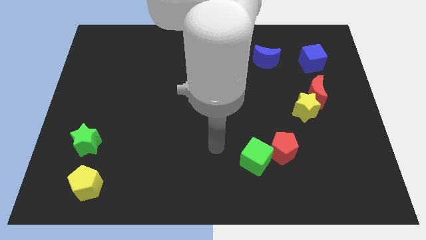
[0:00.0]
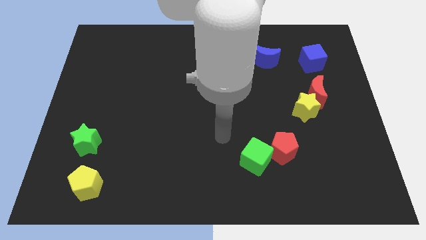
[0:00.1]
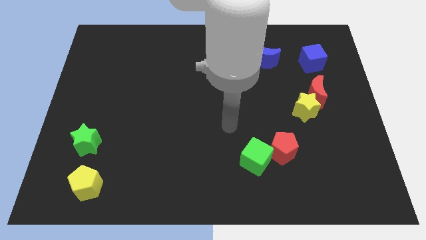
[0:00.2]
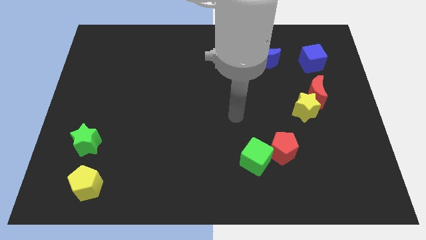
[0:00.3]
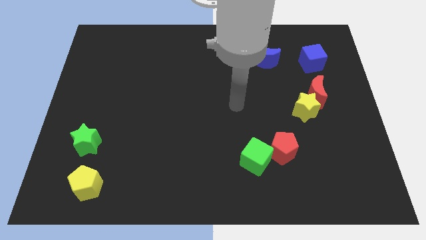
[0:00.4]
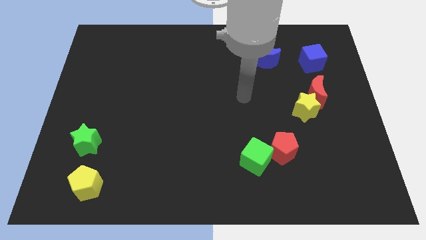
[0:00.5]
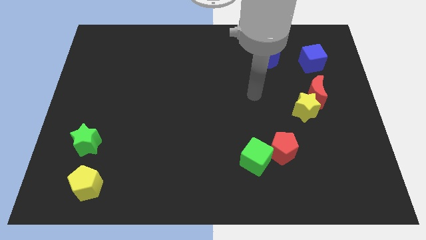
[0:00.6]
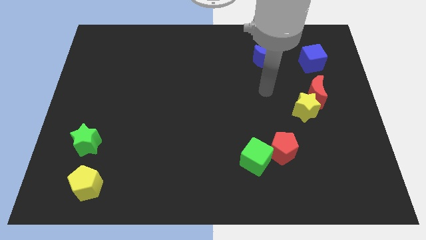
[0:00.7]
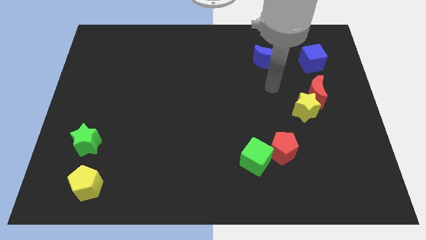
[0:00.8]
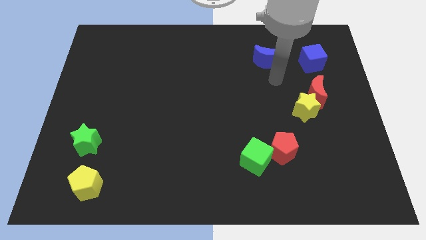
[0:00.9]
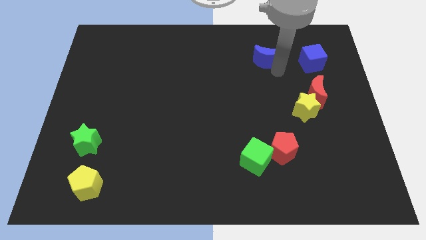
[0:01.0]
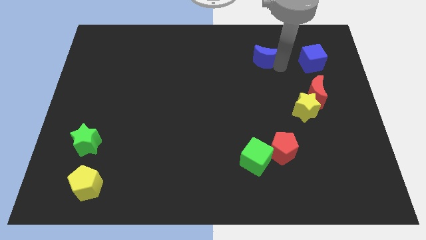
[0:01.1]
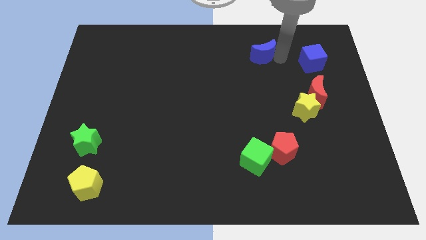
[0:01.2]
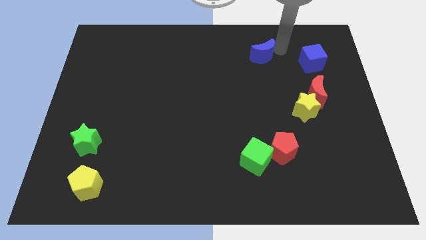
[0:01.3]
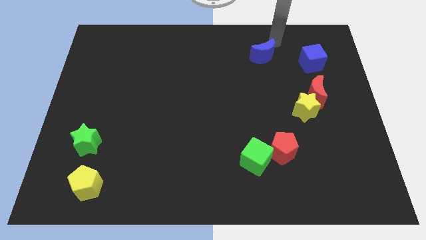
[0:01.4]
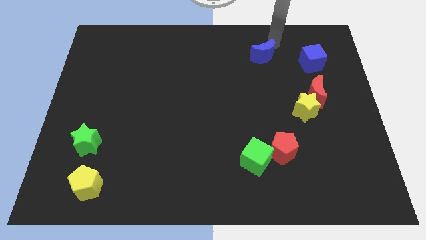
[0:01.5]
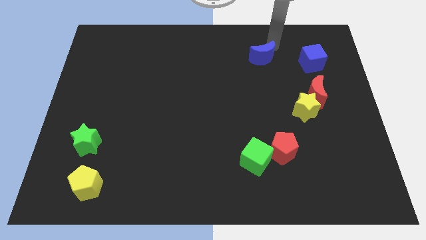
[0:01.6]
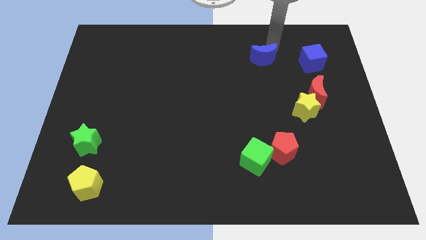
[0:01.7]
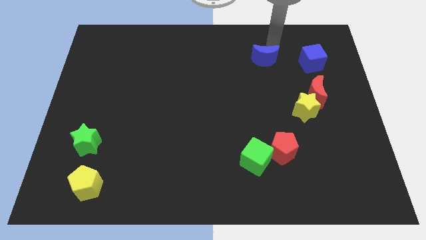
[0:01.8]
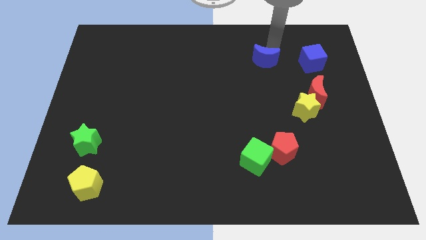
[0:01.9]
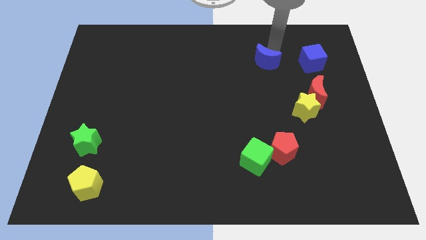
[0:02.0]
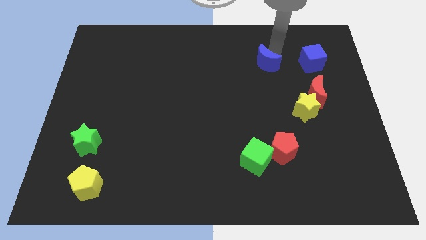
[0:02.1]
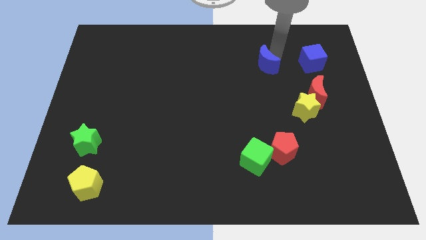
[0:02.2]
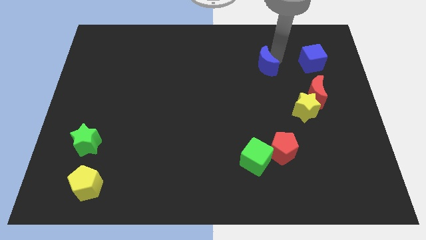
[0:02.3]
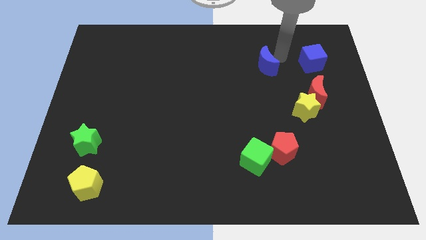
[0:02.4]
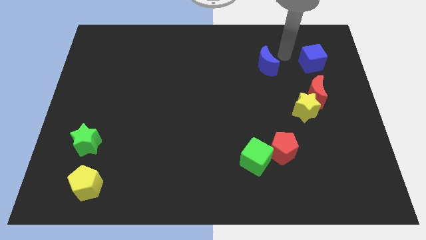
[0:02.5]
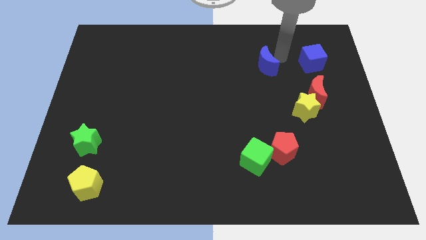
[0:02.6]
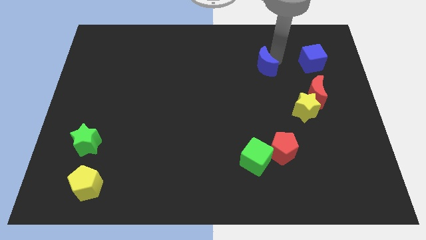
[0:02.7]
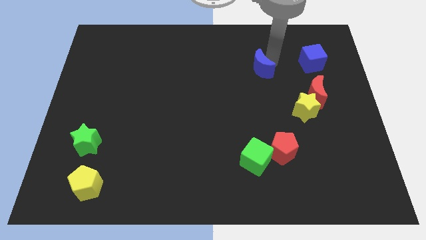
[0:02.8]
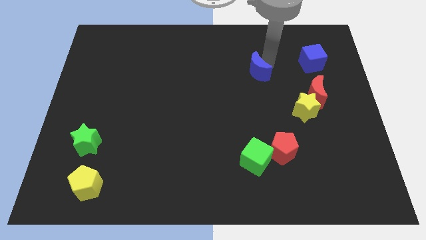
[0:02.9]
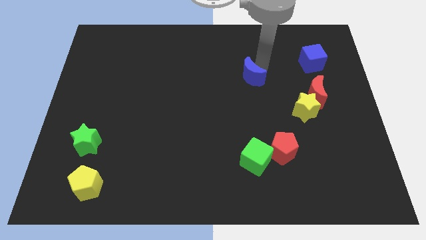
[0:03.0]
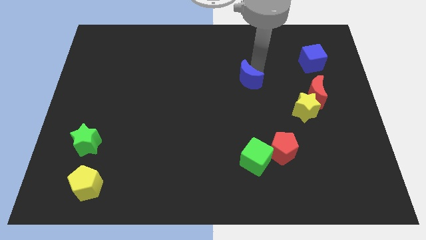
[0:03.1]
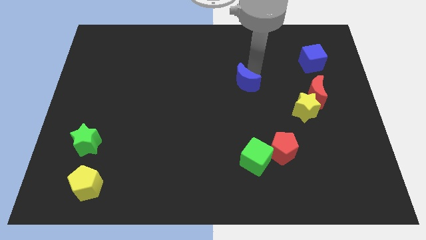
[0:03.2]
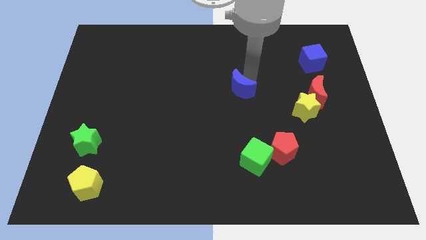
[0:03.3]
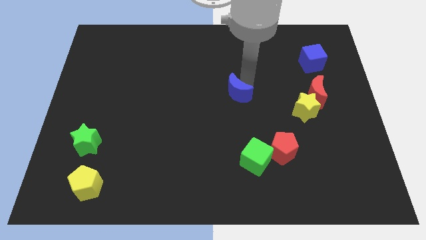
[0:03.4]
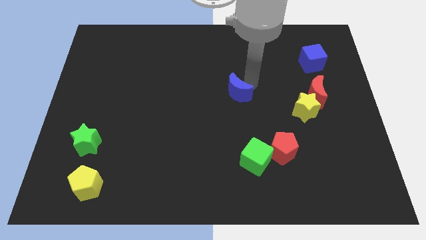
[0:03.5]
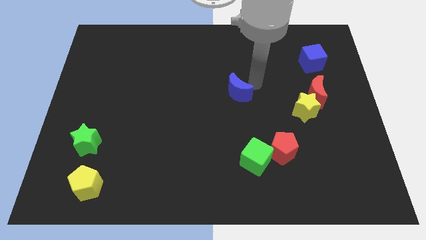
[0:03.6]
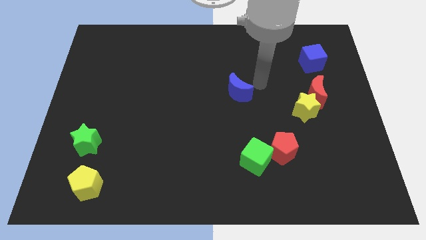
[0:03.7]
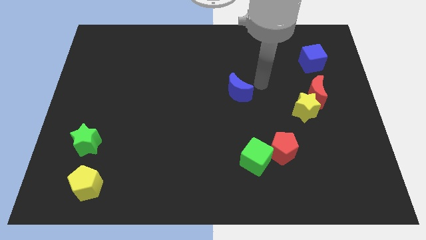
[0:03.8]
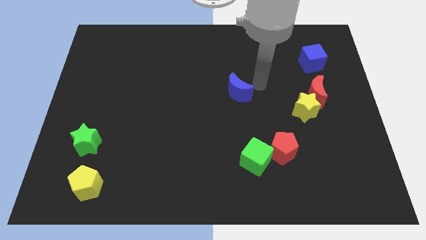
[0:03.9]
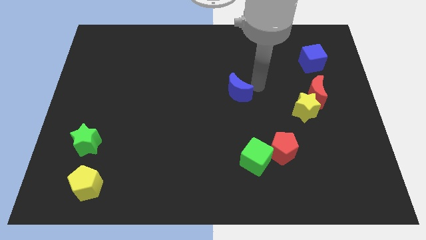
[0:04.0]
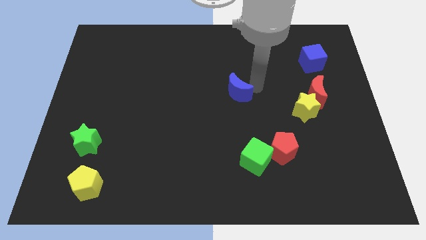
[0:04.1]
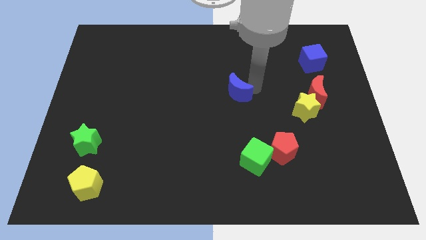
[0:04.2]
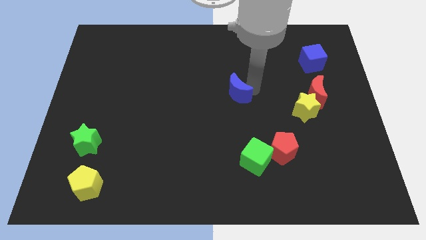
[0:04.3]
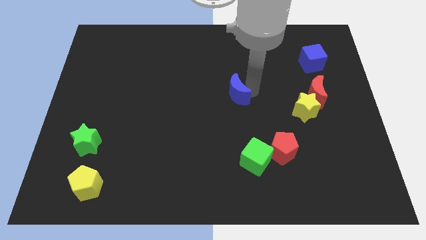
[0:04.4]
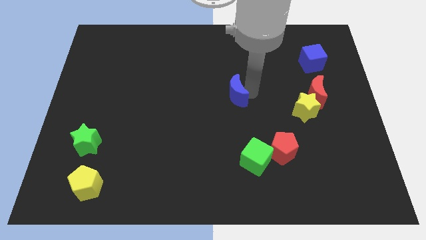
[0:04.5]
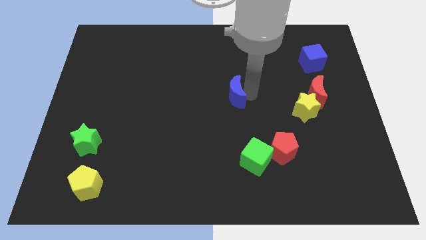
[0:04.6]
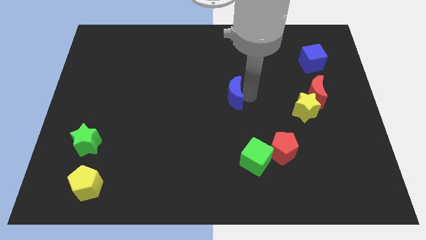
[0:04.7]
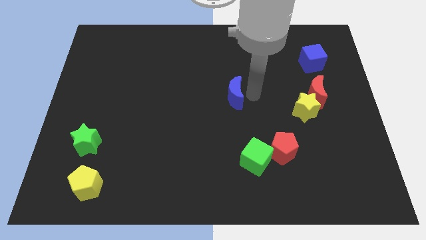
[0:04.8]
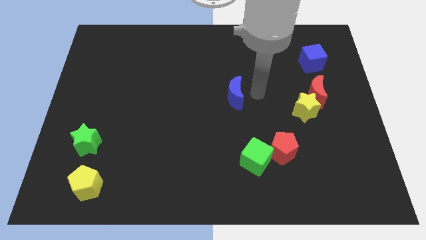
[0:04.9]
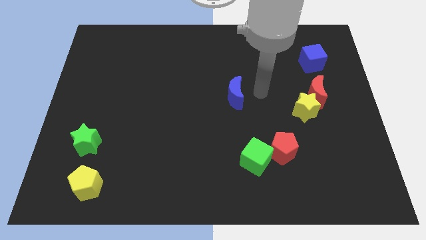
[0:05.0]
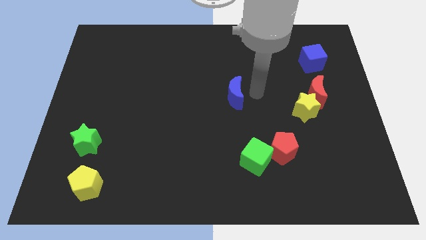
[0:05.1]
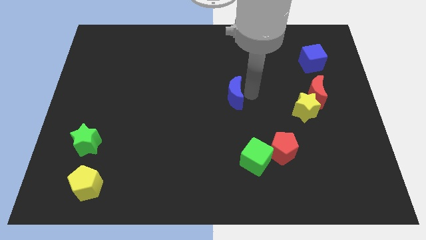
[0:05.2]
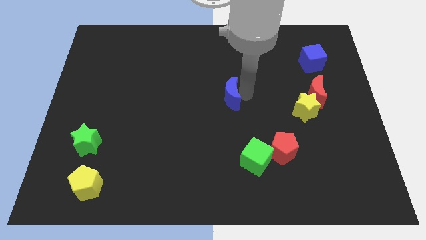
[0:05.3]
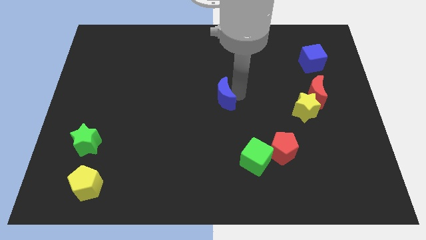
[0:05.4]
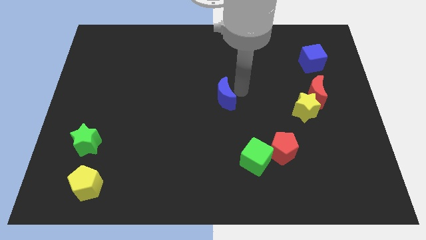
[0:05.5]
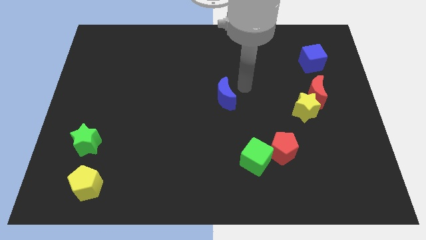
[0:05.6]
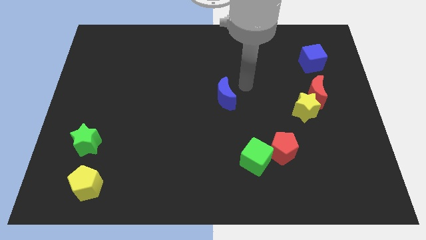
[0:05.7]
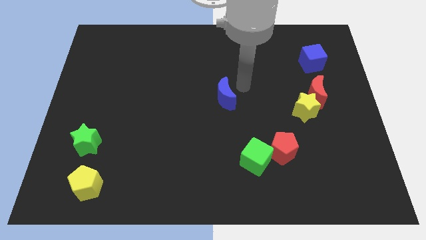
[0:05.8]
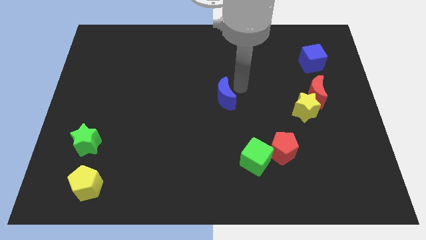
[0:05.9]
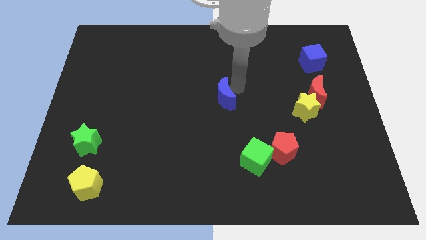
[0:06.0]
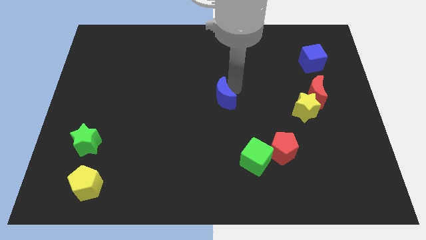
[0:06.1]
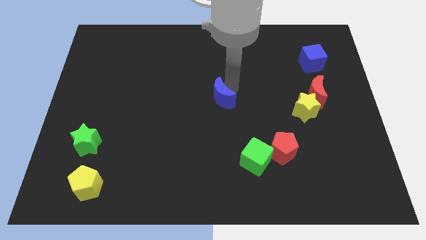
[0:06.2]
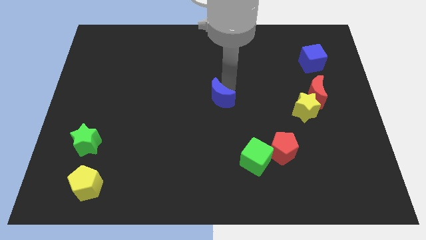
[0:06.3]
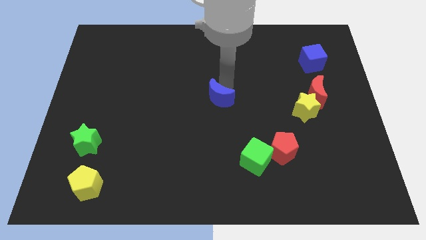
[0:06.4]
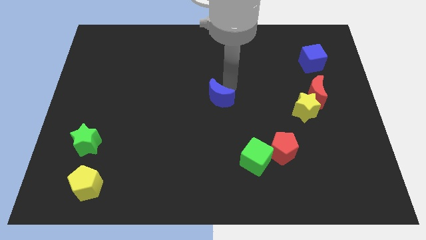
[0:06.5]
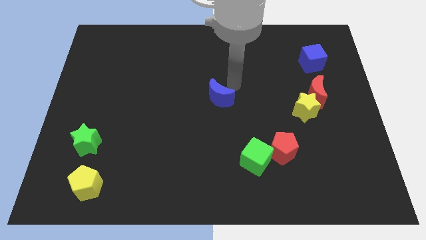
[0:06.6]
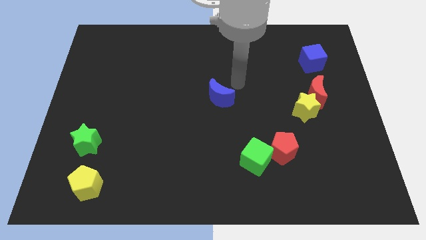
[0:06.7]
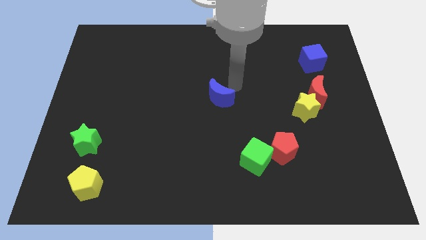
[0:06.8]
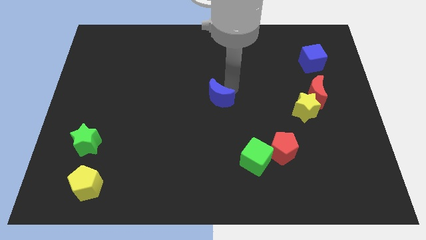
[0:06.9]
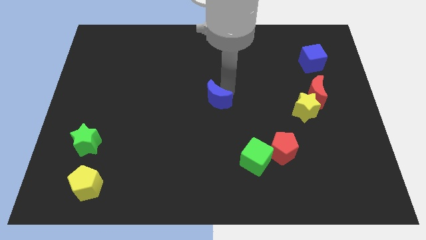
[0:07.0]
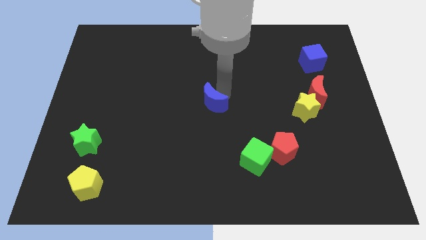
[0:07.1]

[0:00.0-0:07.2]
slide the blue moon downwards and left

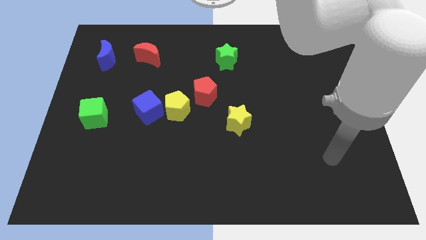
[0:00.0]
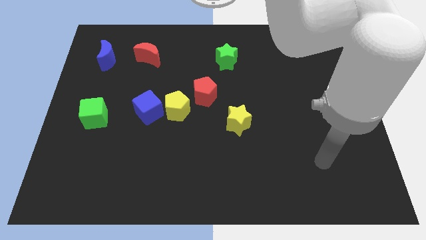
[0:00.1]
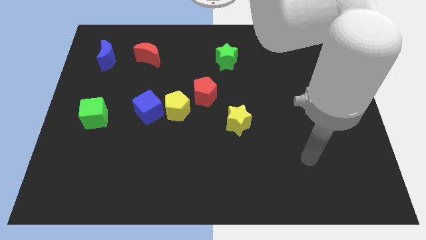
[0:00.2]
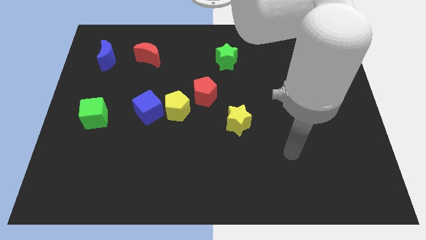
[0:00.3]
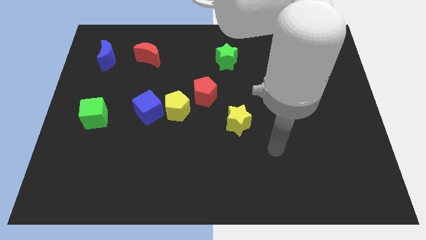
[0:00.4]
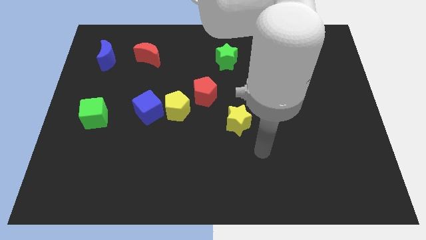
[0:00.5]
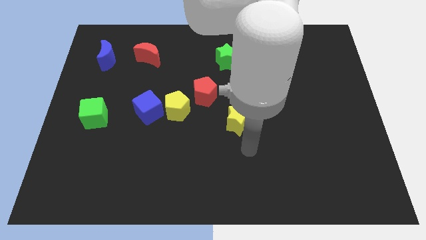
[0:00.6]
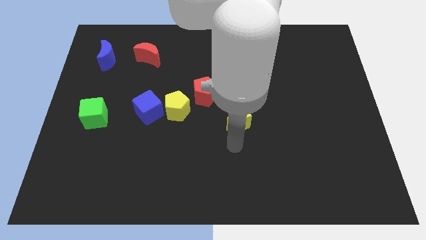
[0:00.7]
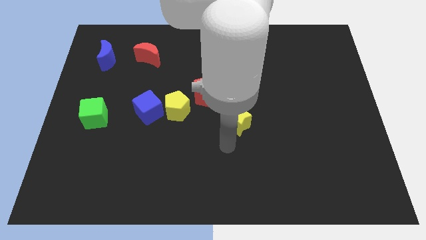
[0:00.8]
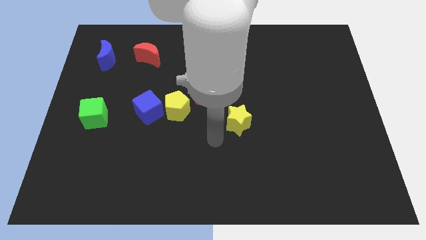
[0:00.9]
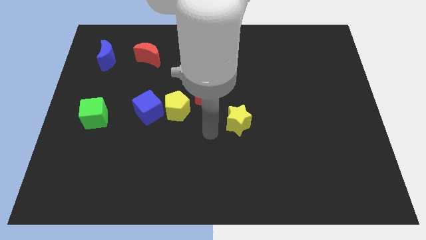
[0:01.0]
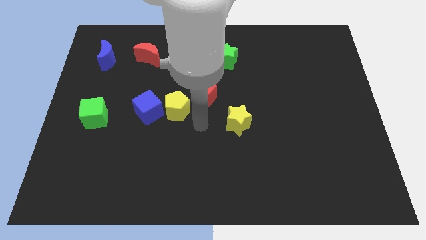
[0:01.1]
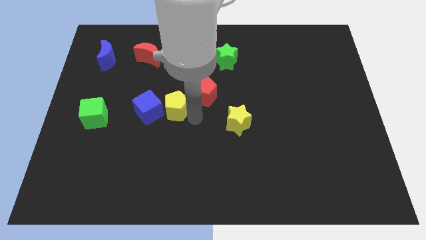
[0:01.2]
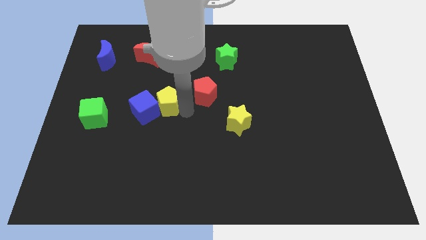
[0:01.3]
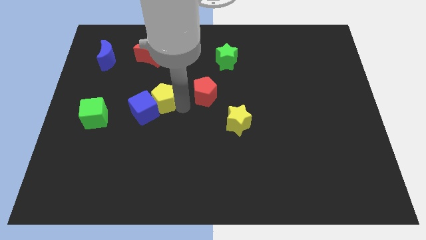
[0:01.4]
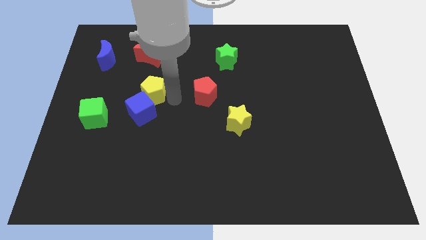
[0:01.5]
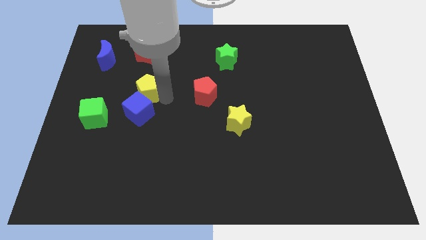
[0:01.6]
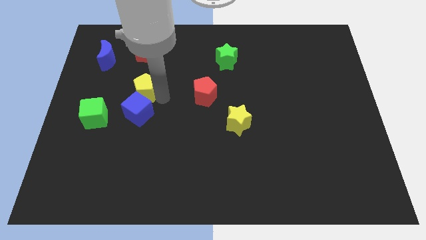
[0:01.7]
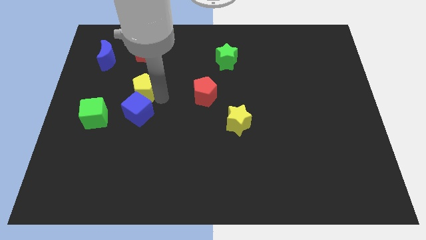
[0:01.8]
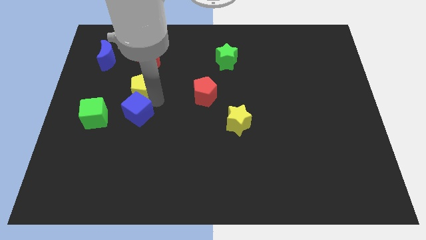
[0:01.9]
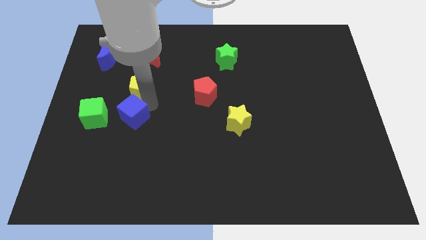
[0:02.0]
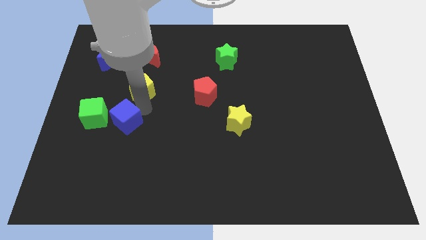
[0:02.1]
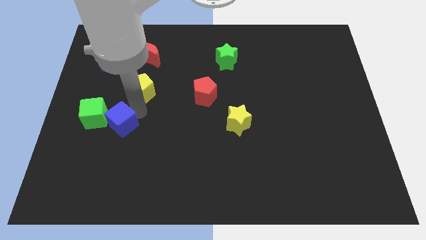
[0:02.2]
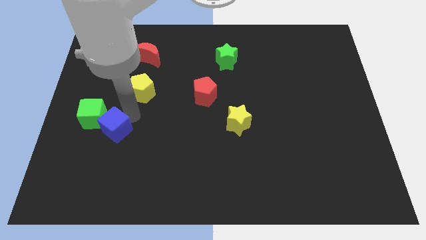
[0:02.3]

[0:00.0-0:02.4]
push the blue cube slightly down and to the left
